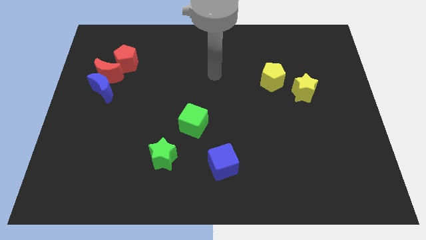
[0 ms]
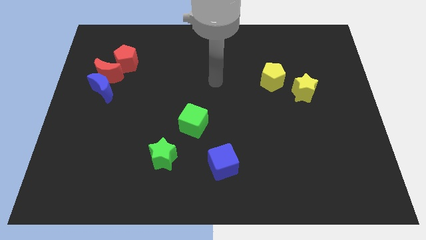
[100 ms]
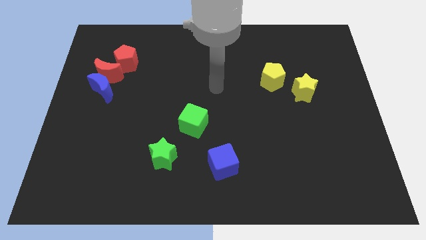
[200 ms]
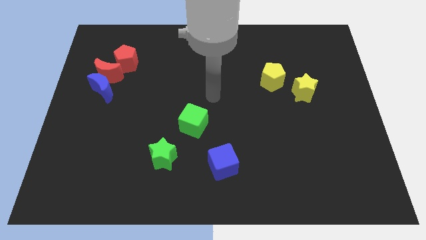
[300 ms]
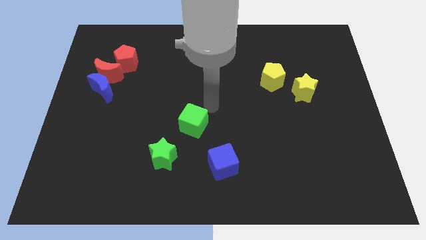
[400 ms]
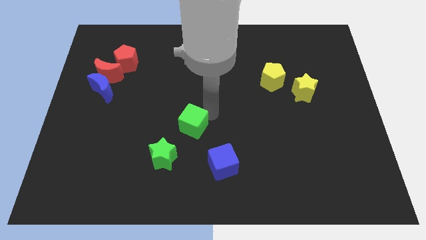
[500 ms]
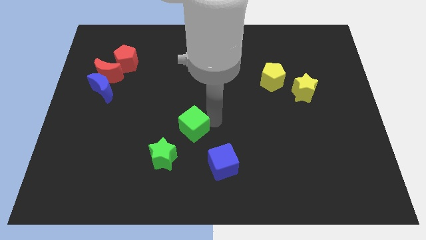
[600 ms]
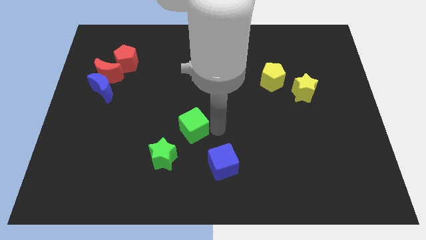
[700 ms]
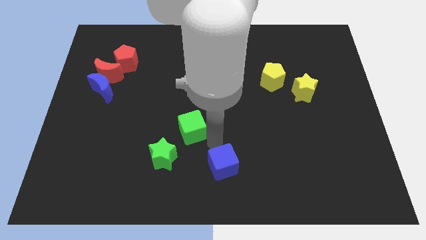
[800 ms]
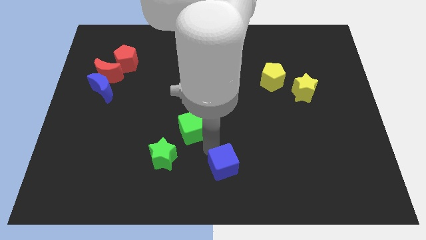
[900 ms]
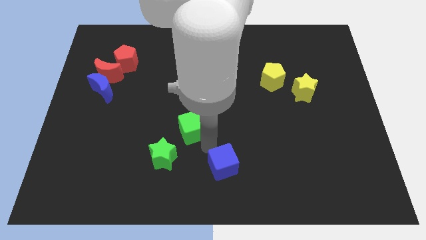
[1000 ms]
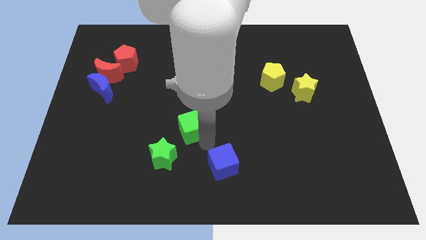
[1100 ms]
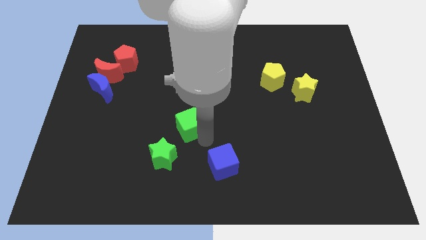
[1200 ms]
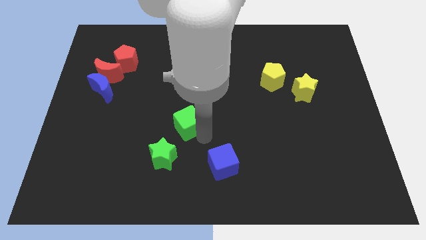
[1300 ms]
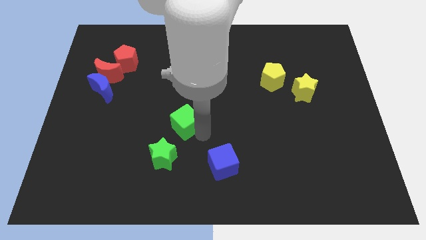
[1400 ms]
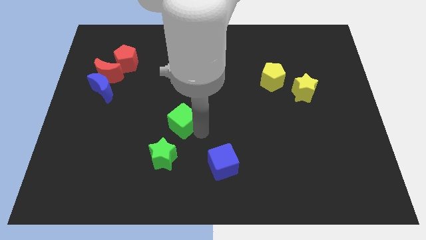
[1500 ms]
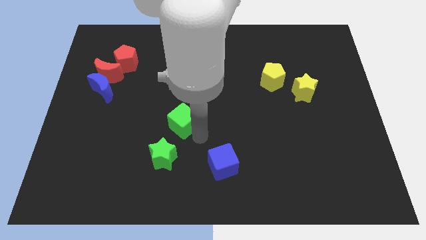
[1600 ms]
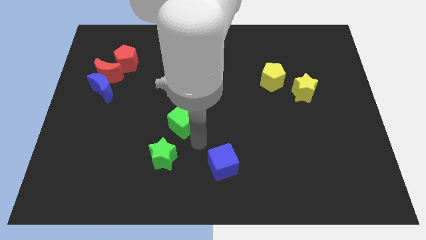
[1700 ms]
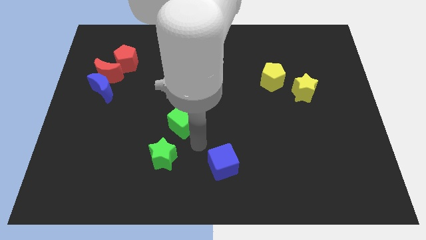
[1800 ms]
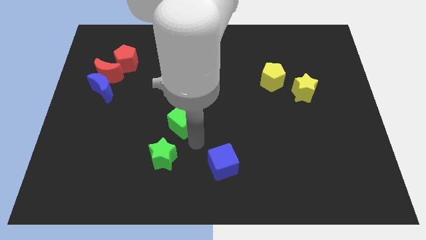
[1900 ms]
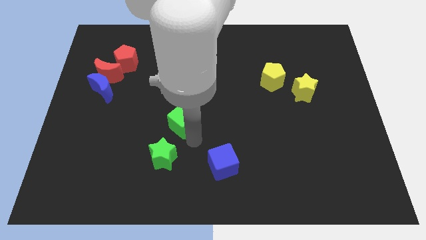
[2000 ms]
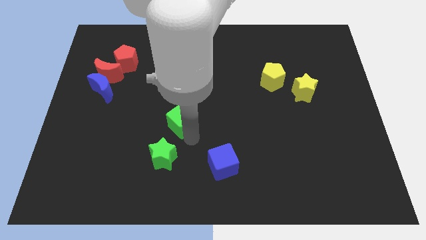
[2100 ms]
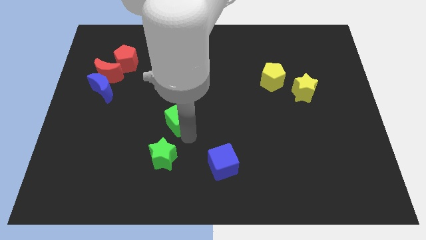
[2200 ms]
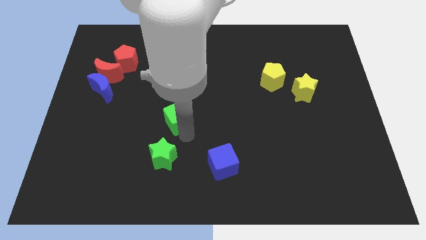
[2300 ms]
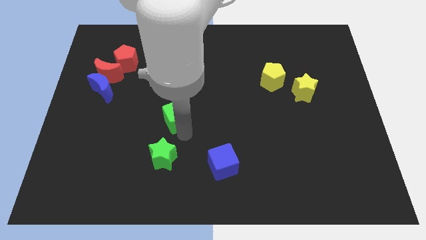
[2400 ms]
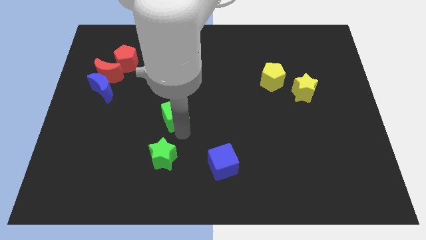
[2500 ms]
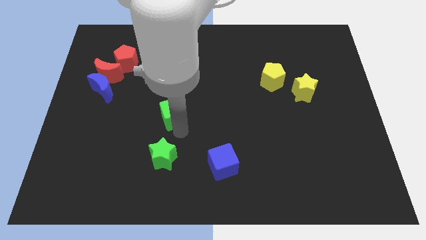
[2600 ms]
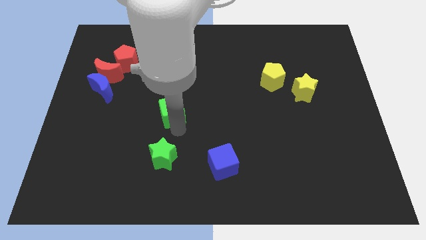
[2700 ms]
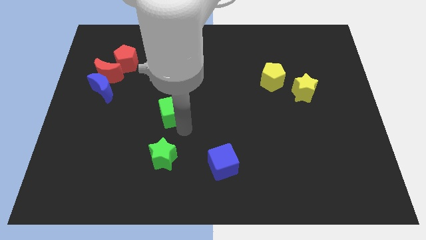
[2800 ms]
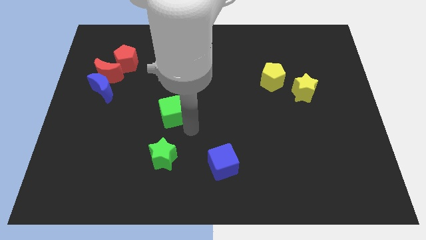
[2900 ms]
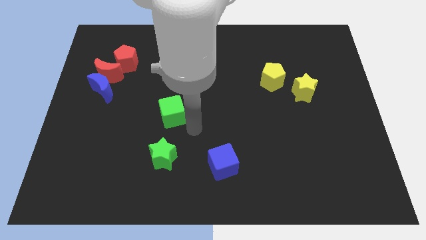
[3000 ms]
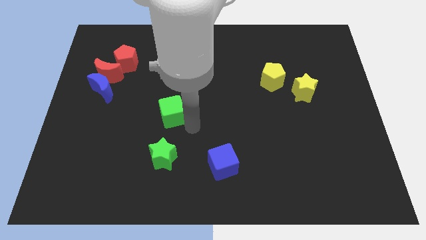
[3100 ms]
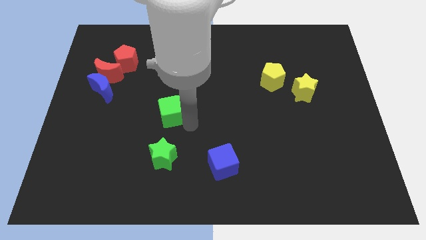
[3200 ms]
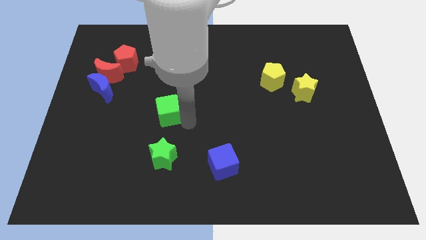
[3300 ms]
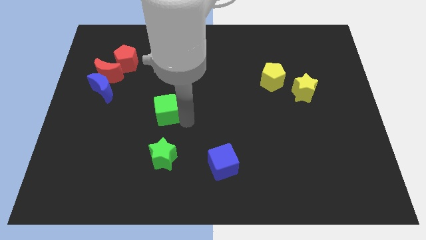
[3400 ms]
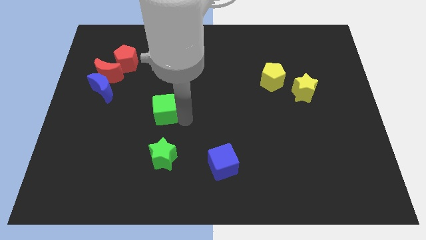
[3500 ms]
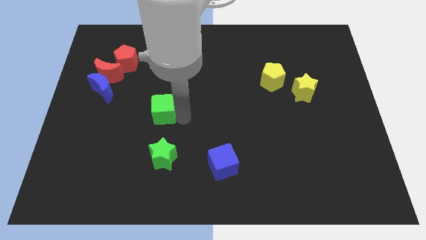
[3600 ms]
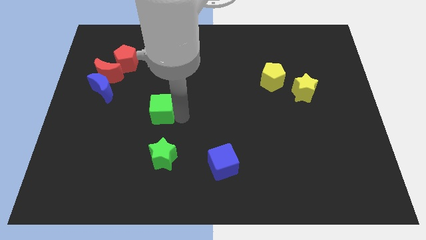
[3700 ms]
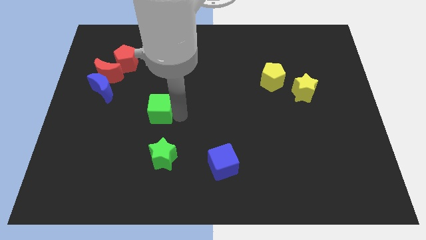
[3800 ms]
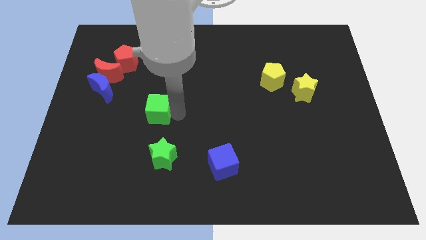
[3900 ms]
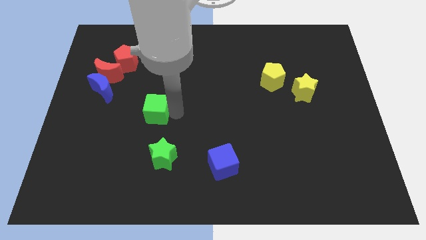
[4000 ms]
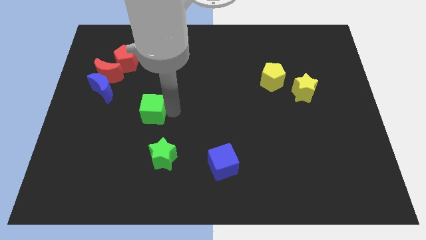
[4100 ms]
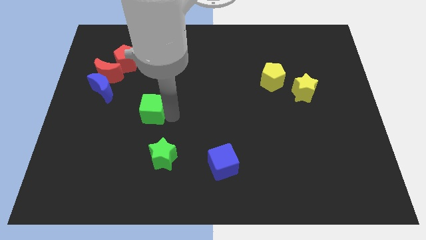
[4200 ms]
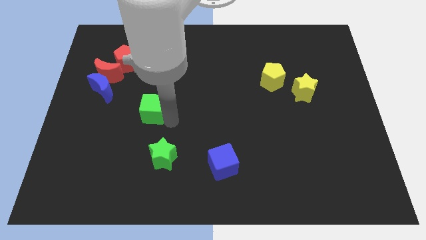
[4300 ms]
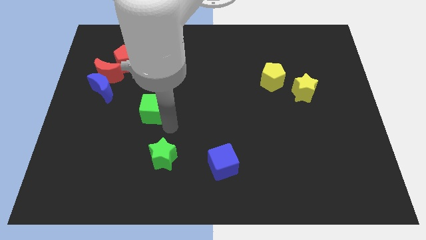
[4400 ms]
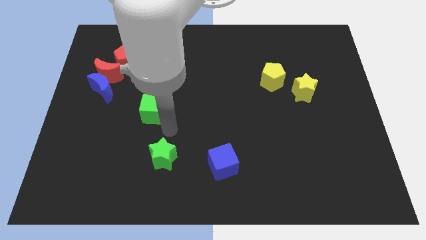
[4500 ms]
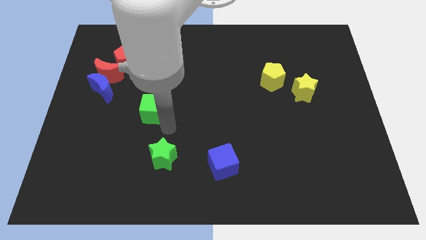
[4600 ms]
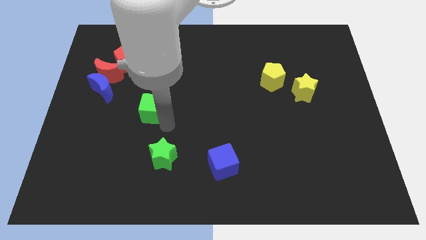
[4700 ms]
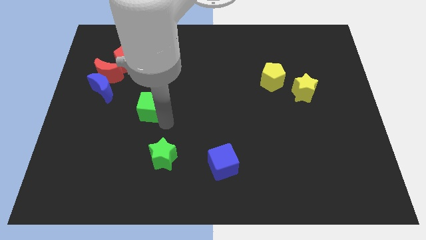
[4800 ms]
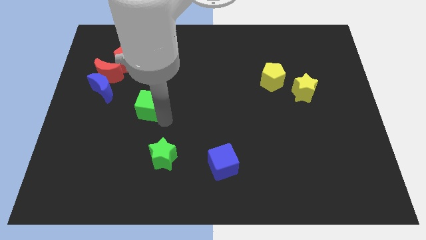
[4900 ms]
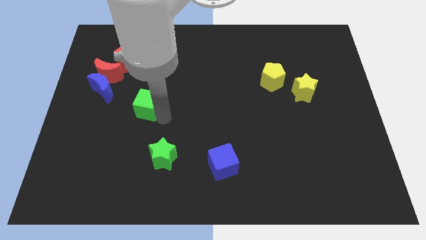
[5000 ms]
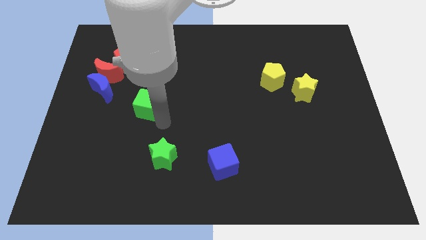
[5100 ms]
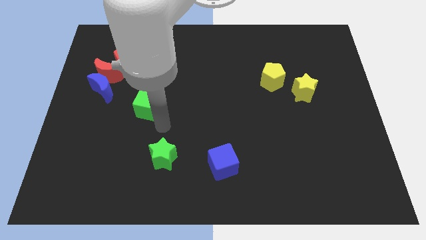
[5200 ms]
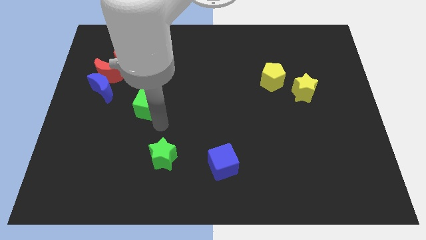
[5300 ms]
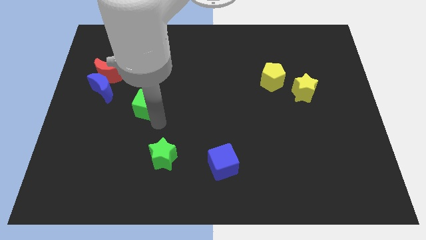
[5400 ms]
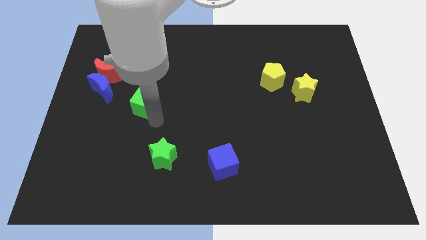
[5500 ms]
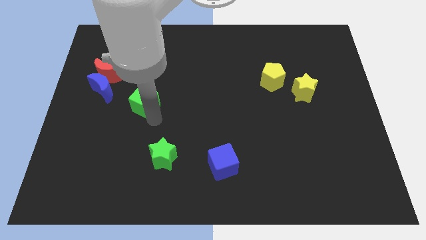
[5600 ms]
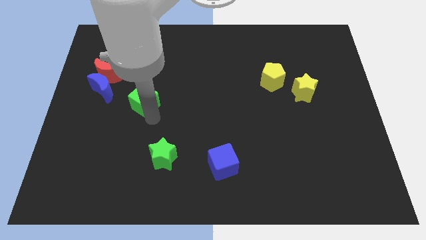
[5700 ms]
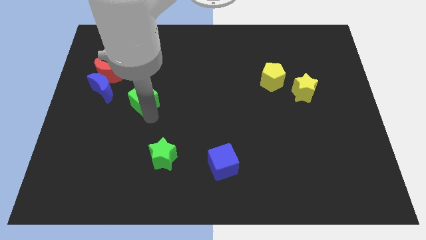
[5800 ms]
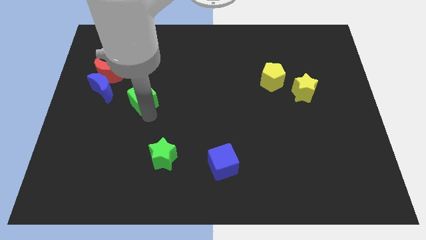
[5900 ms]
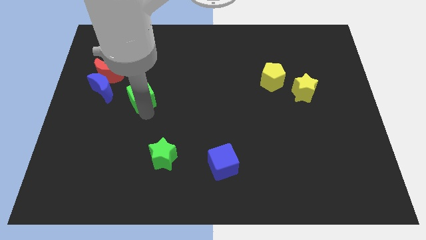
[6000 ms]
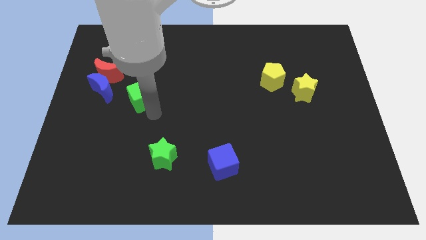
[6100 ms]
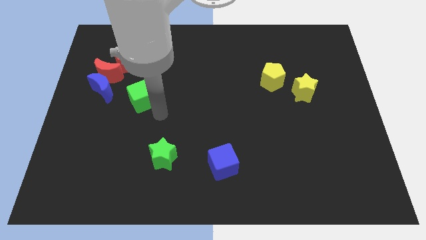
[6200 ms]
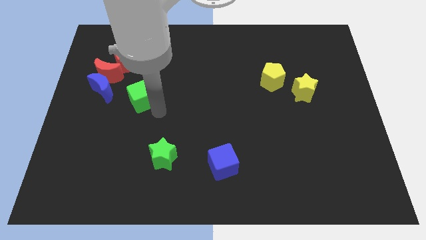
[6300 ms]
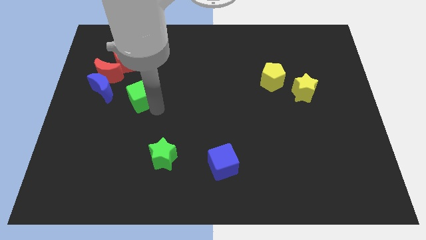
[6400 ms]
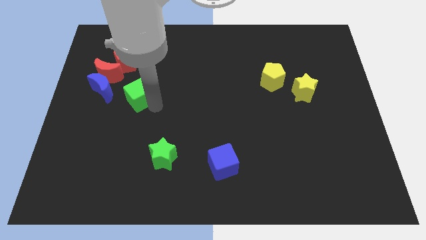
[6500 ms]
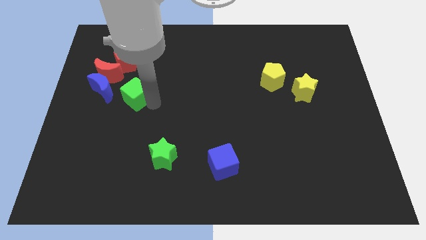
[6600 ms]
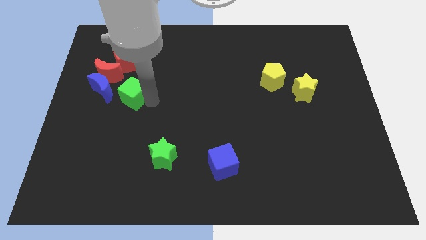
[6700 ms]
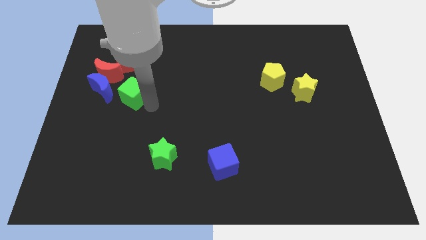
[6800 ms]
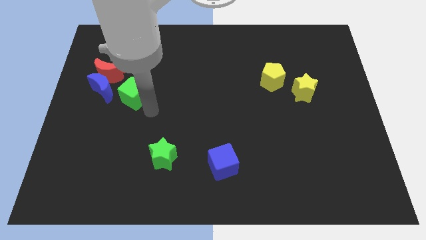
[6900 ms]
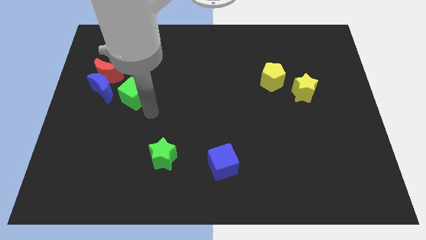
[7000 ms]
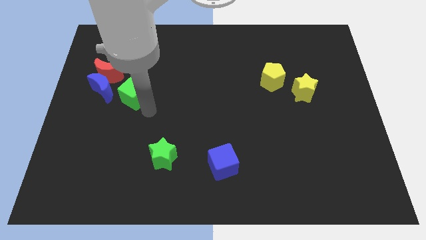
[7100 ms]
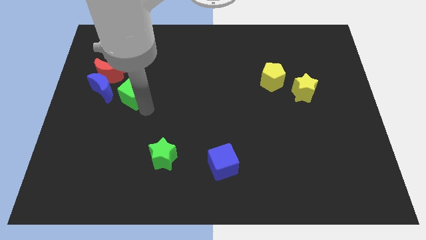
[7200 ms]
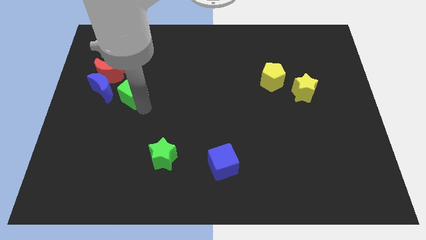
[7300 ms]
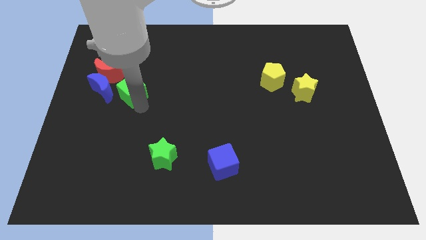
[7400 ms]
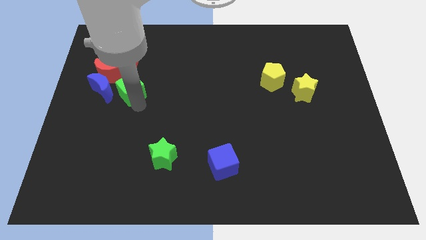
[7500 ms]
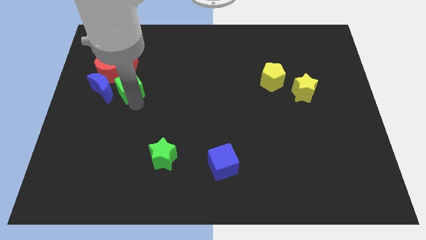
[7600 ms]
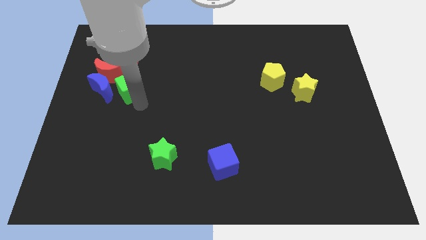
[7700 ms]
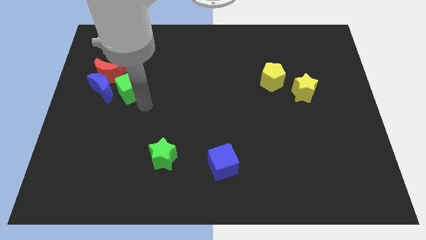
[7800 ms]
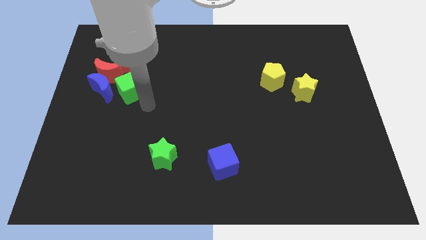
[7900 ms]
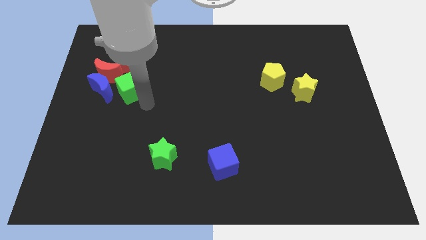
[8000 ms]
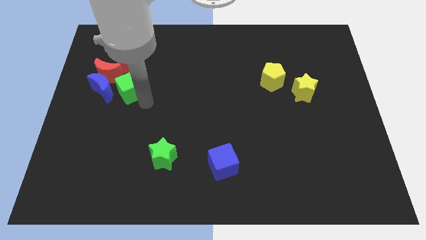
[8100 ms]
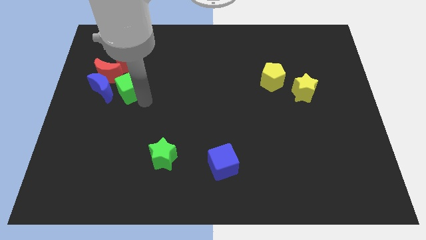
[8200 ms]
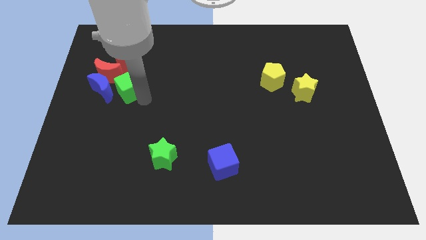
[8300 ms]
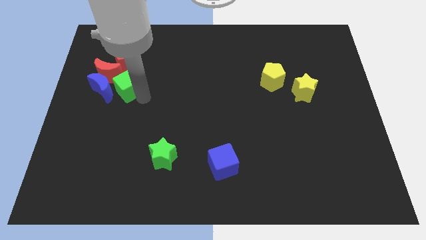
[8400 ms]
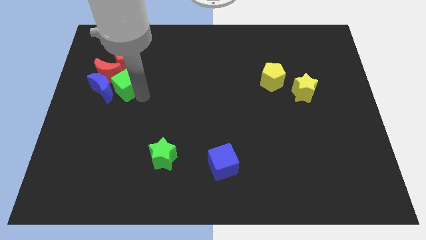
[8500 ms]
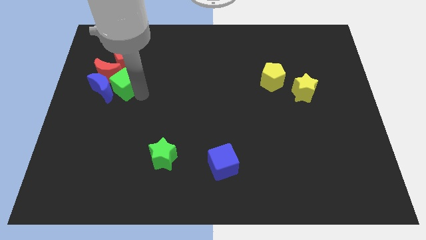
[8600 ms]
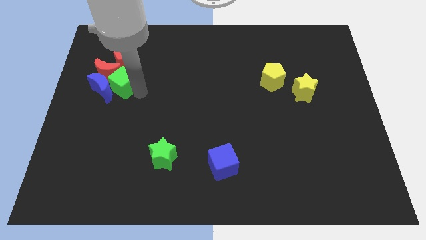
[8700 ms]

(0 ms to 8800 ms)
move the green cube close to the red moon
